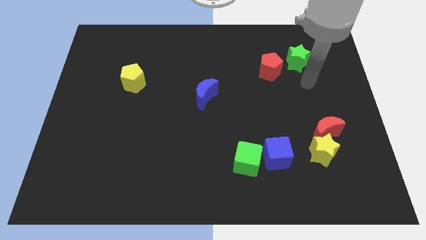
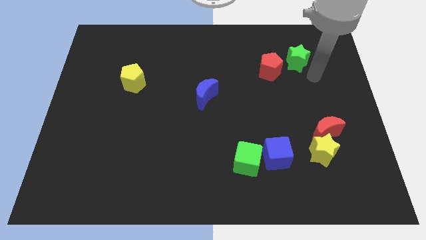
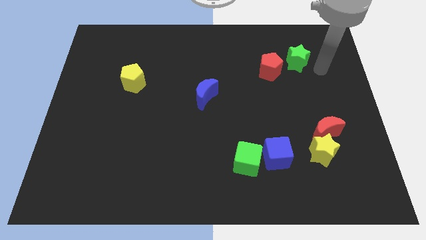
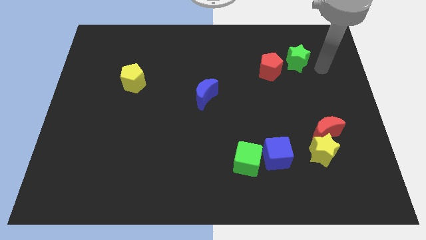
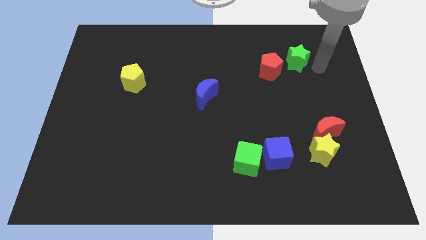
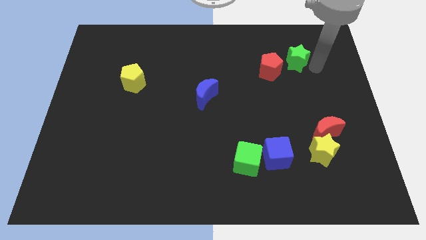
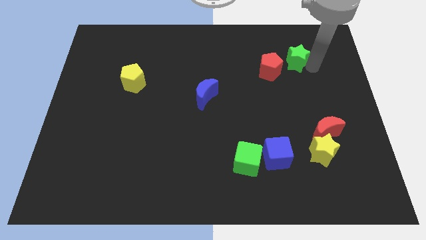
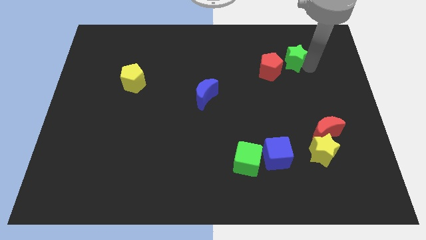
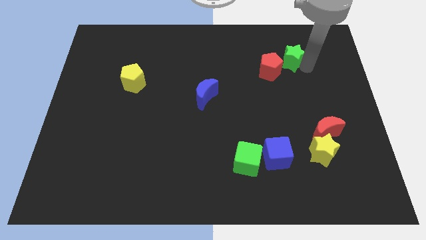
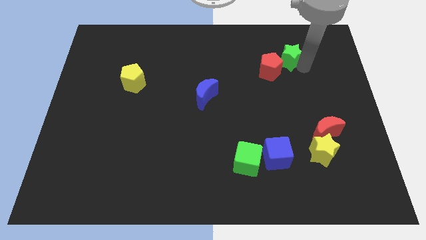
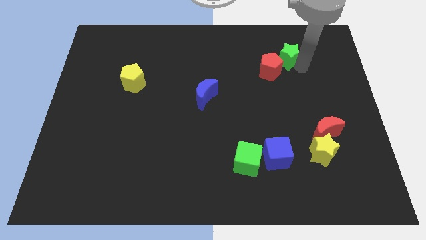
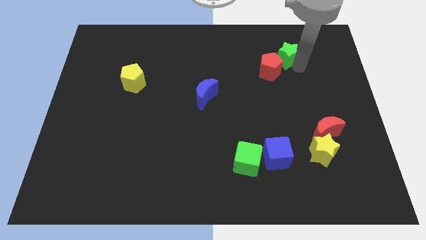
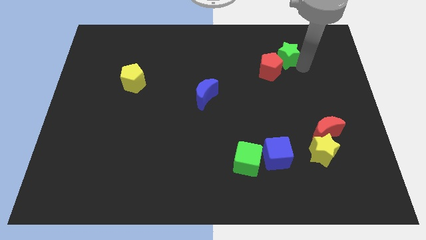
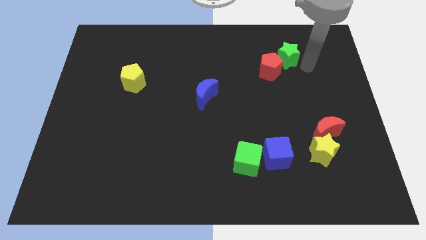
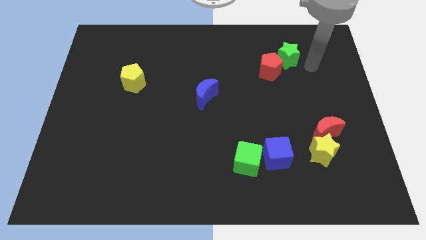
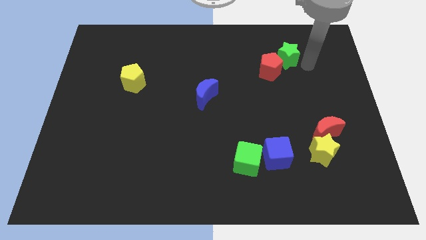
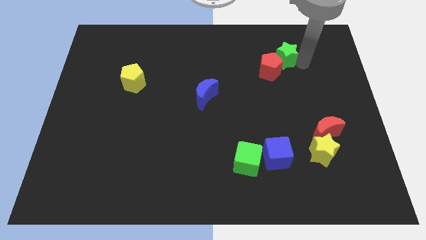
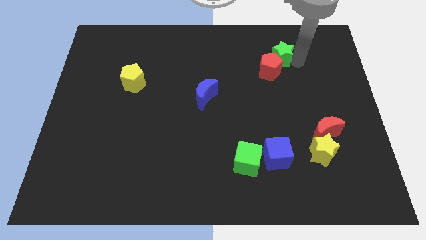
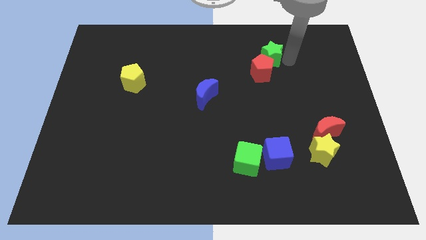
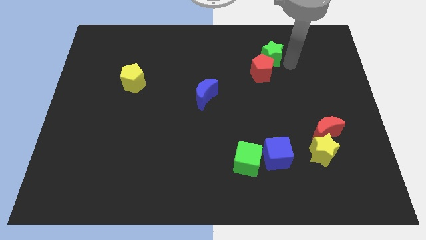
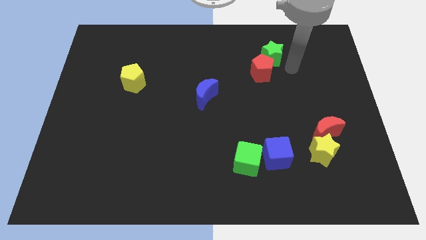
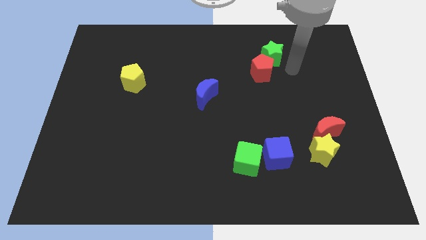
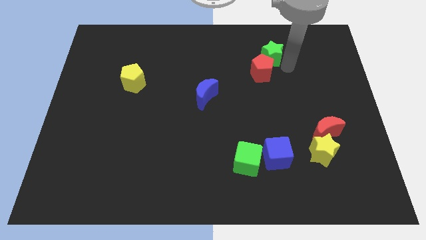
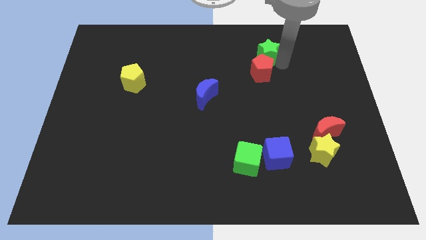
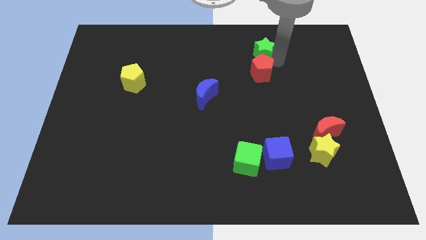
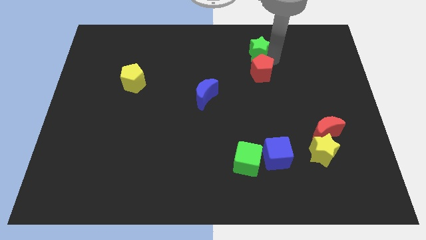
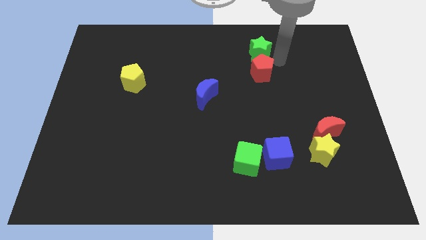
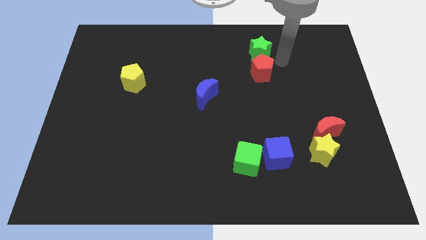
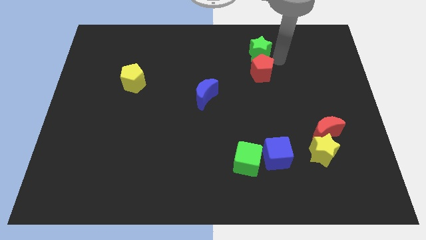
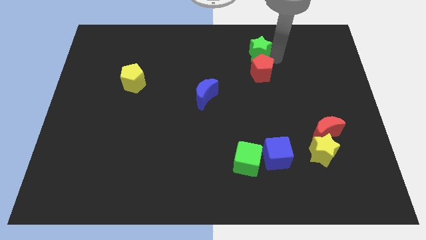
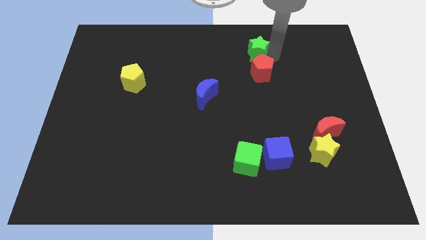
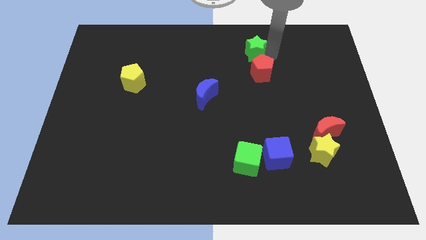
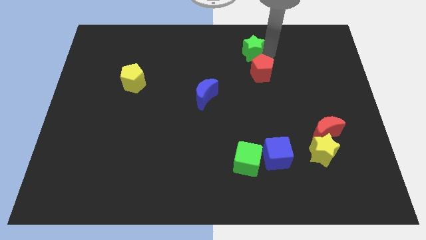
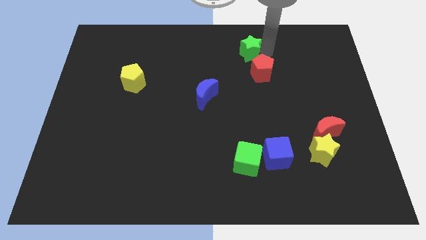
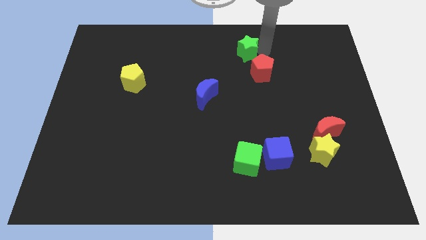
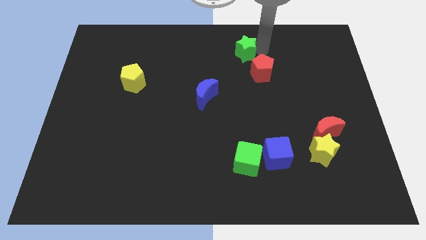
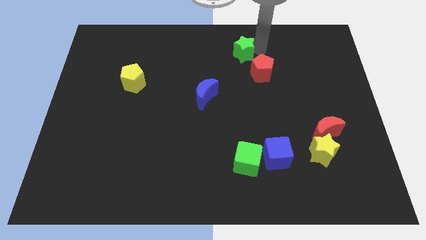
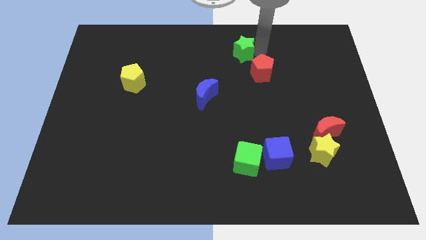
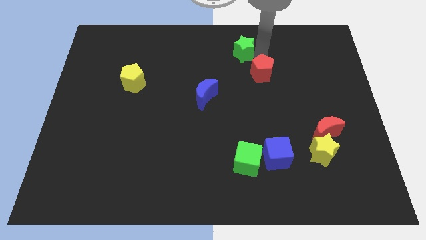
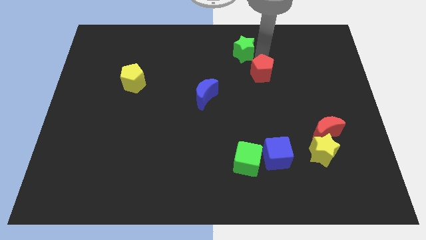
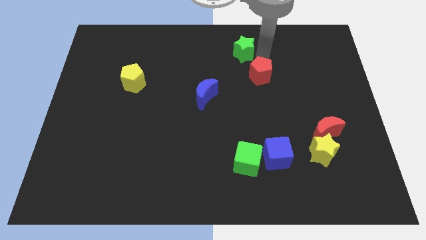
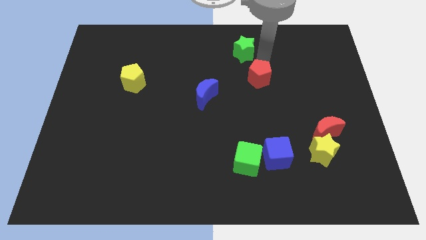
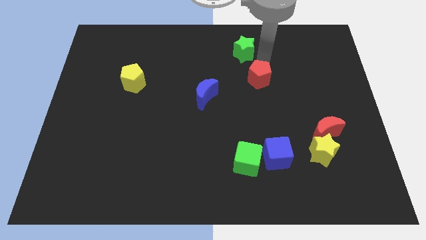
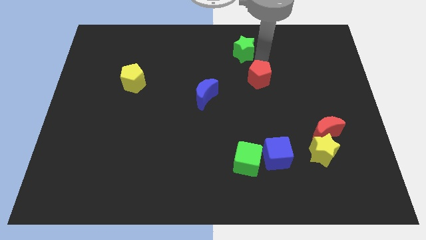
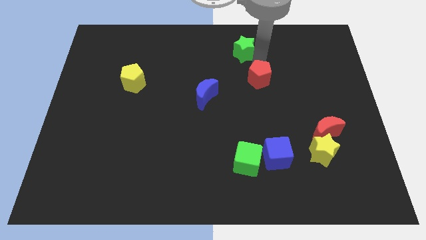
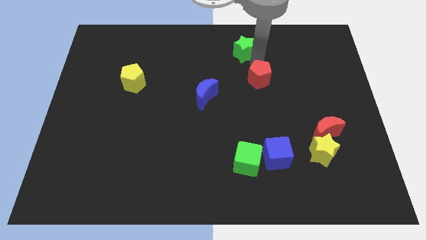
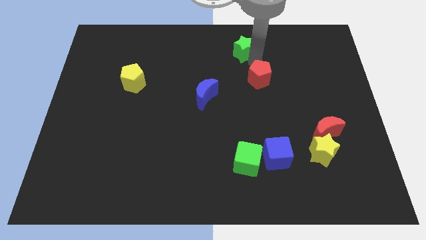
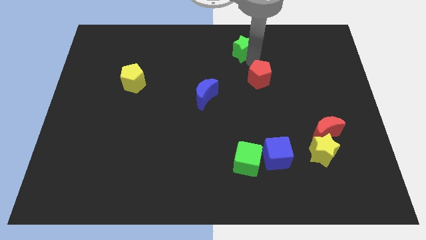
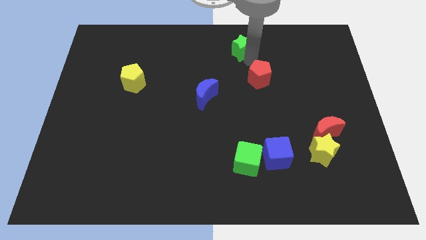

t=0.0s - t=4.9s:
put the green star to the top
